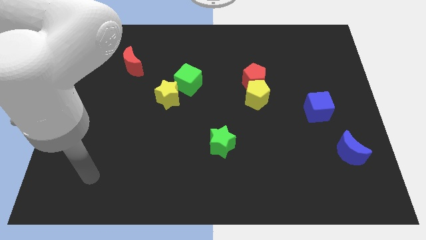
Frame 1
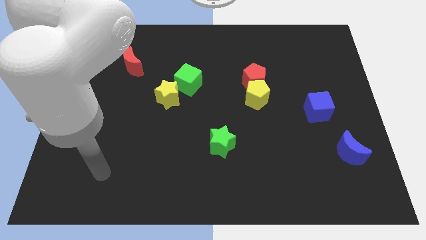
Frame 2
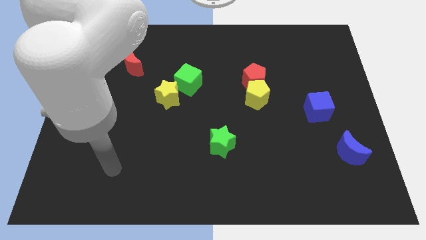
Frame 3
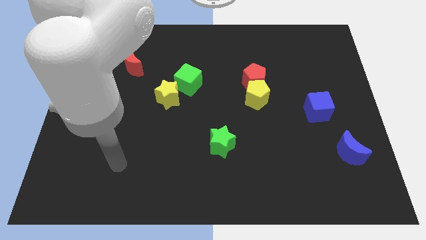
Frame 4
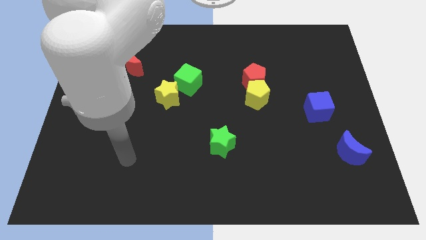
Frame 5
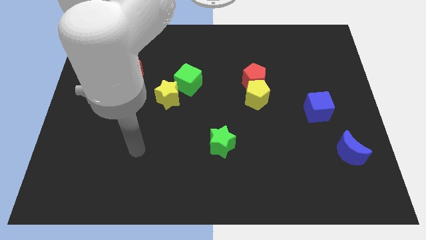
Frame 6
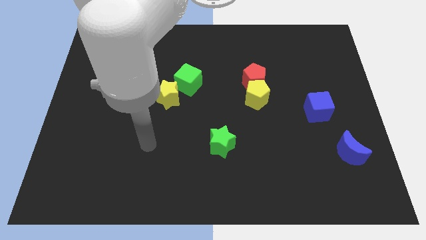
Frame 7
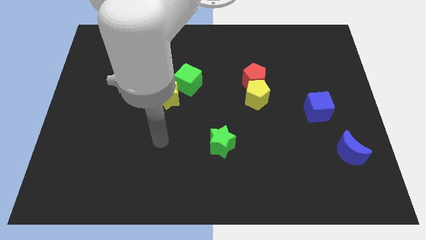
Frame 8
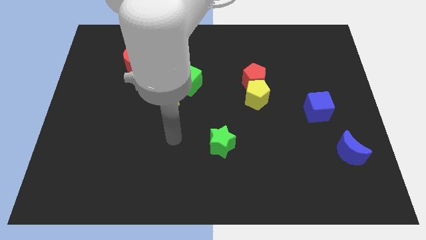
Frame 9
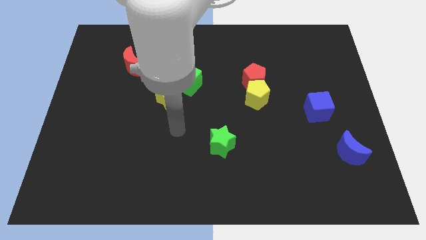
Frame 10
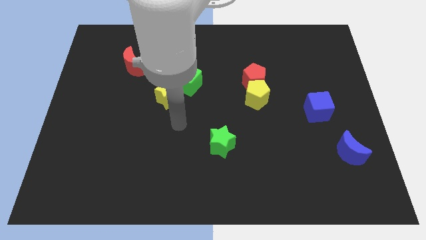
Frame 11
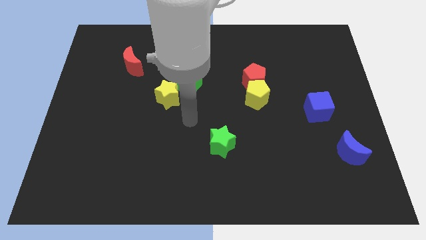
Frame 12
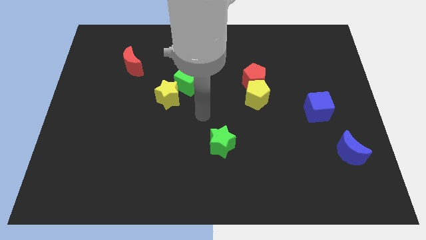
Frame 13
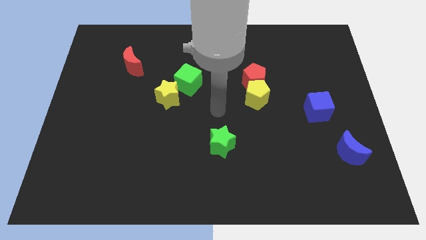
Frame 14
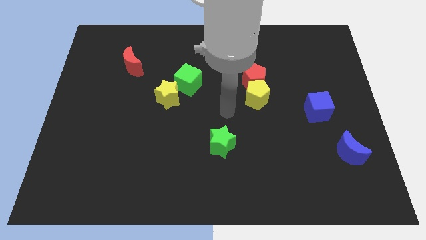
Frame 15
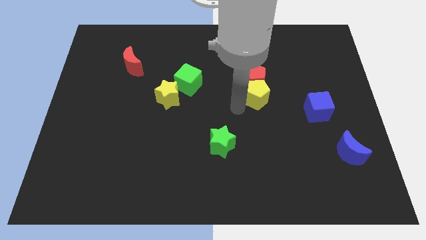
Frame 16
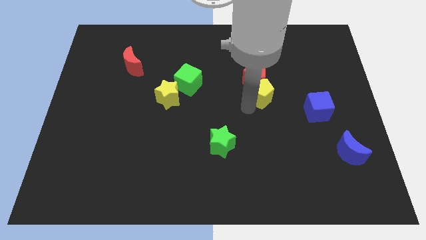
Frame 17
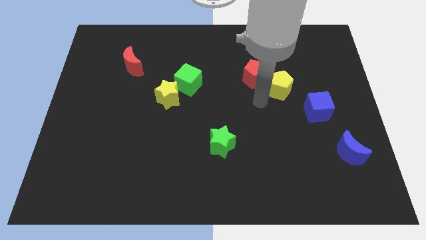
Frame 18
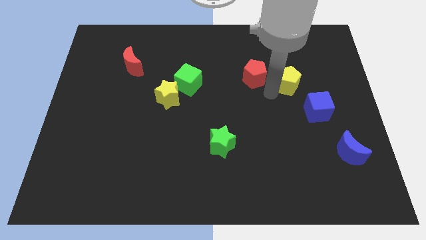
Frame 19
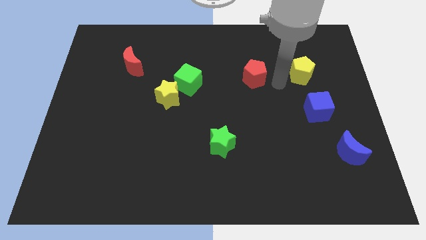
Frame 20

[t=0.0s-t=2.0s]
separate the red pentagon from the yellow pentagon

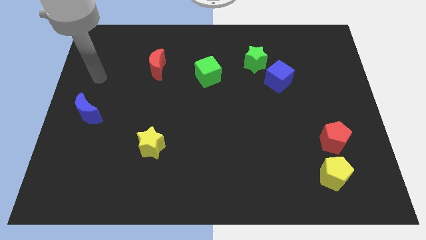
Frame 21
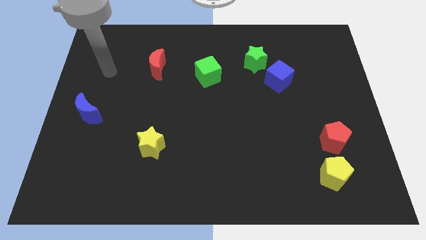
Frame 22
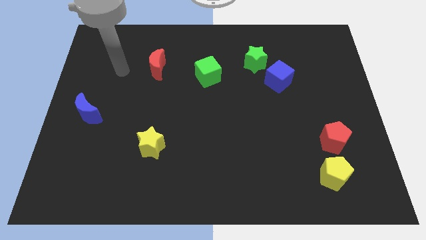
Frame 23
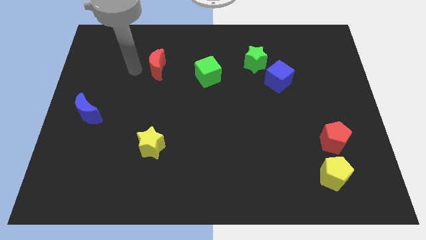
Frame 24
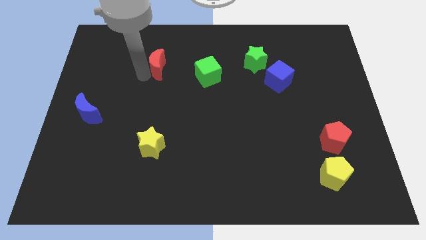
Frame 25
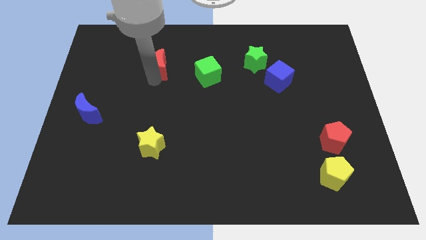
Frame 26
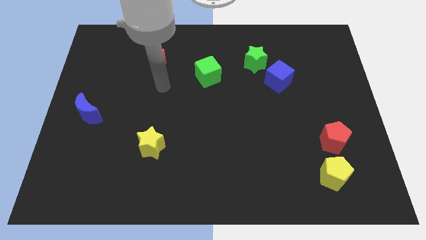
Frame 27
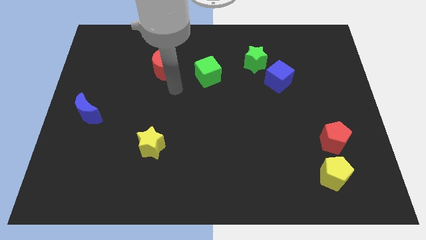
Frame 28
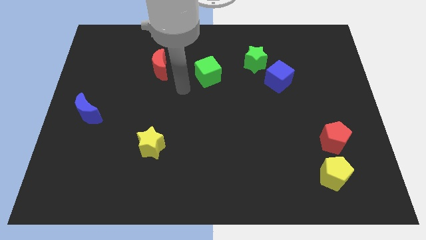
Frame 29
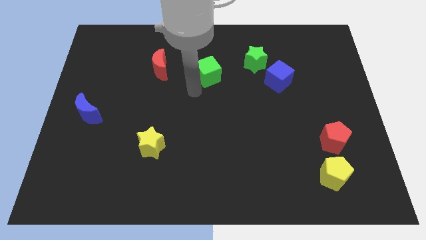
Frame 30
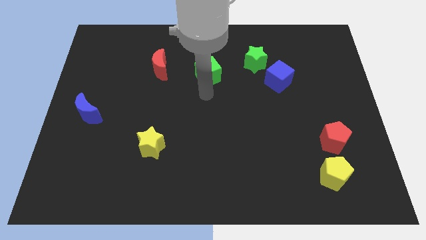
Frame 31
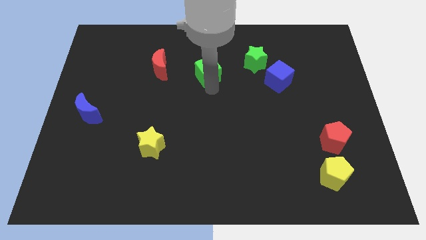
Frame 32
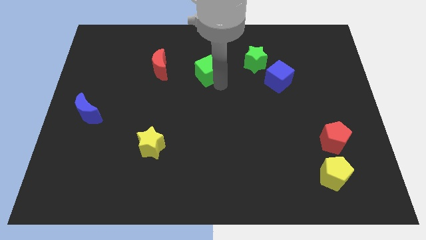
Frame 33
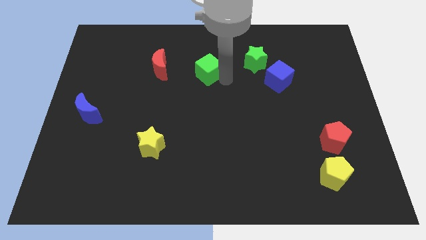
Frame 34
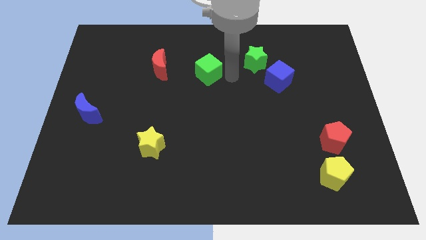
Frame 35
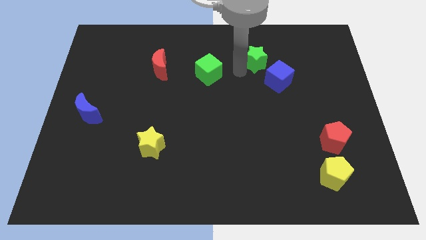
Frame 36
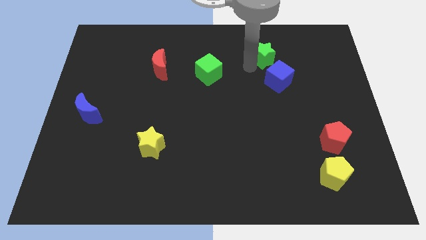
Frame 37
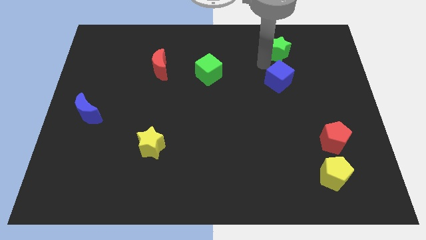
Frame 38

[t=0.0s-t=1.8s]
move the blue cube away from the green star

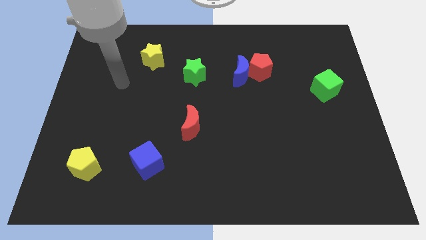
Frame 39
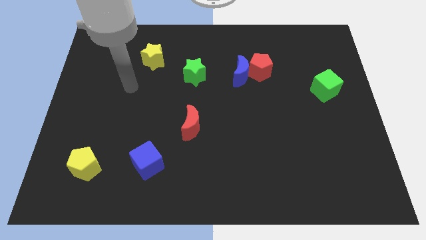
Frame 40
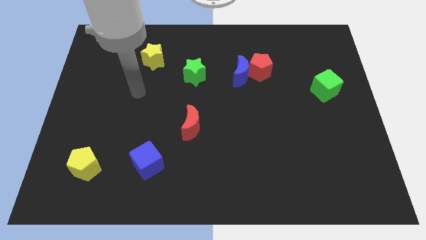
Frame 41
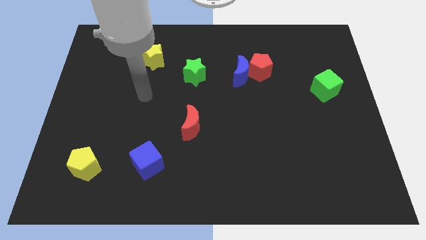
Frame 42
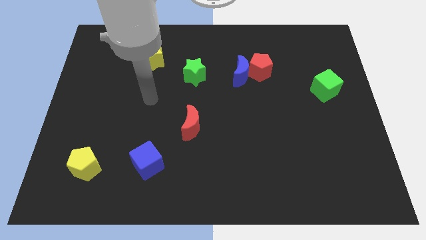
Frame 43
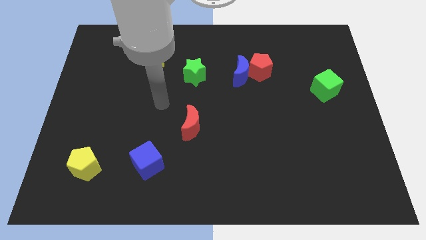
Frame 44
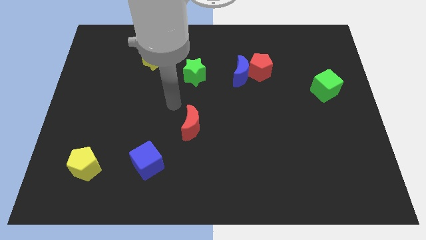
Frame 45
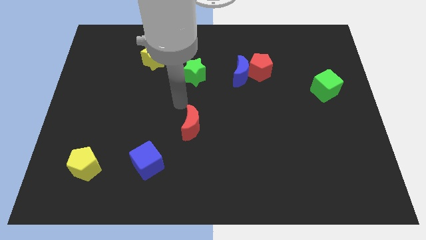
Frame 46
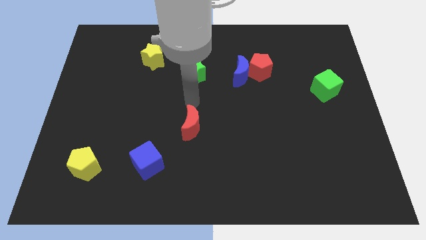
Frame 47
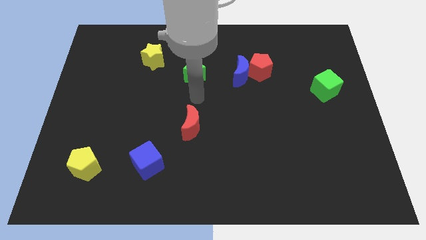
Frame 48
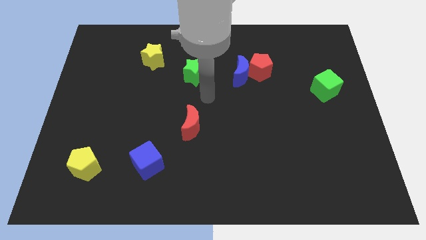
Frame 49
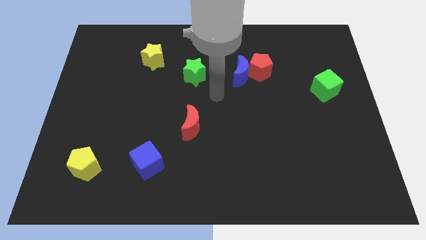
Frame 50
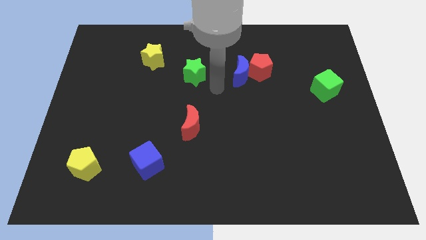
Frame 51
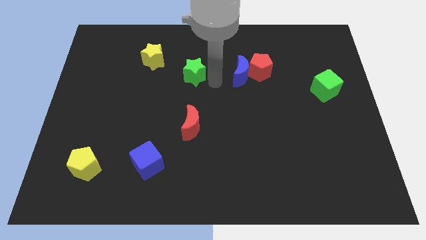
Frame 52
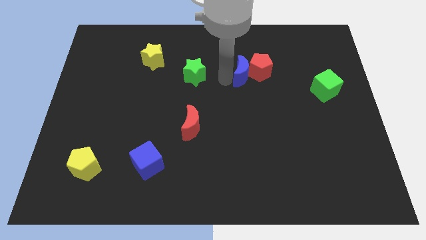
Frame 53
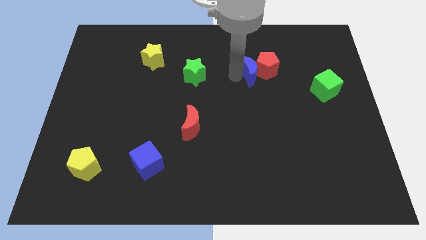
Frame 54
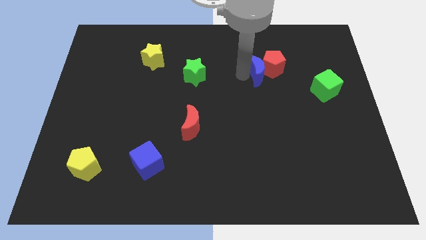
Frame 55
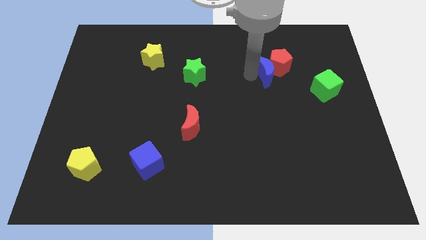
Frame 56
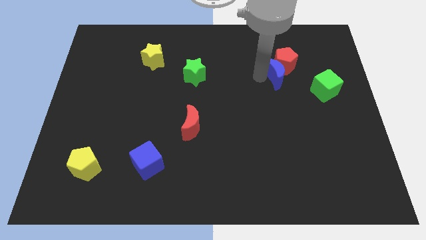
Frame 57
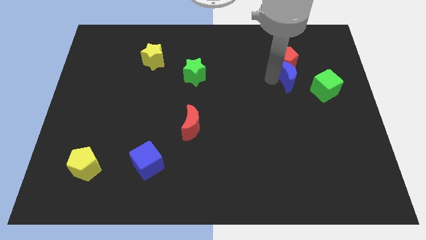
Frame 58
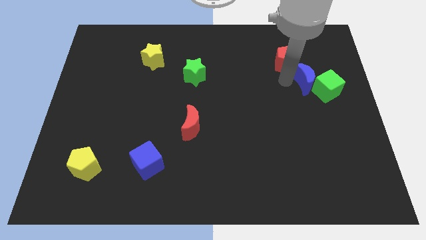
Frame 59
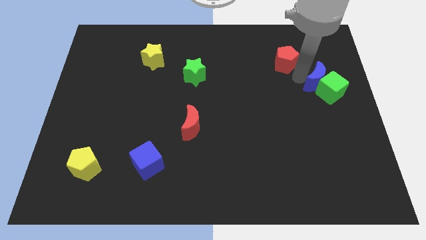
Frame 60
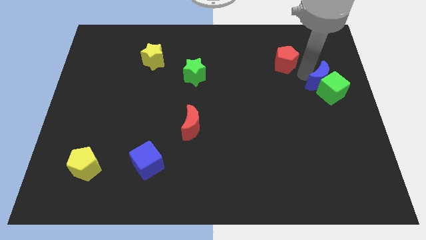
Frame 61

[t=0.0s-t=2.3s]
separate the red pentagon from the blue moon

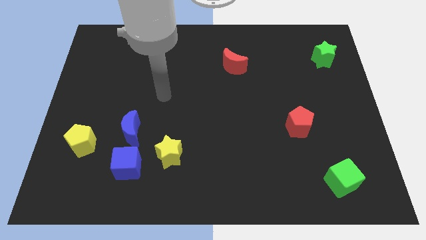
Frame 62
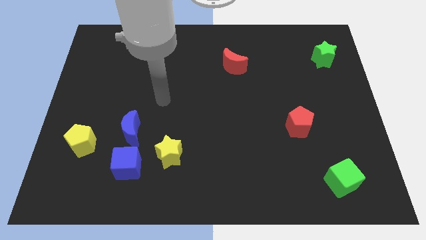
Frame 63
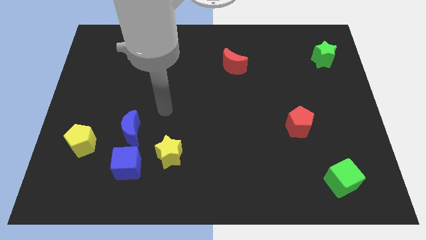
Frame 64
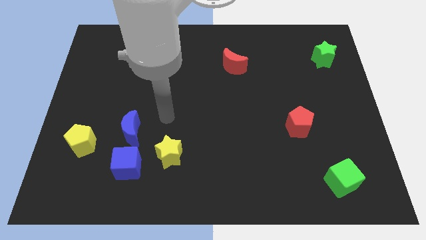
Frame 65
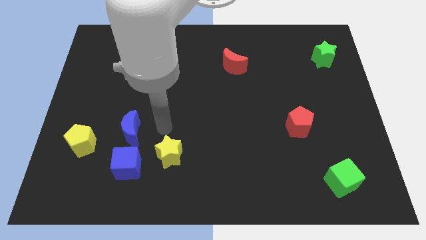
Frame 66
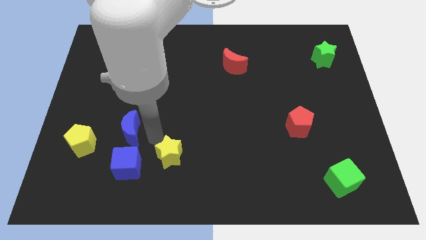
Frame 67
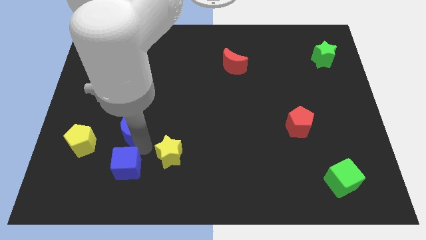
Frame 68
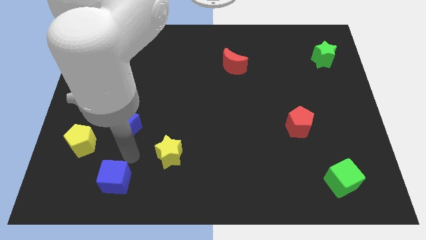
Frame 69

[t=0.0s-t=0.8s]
move the blue moon away from the blue cube

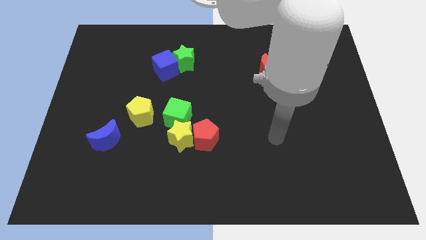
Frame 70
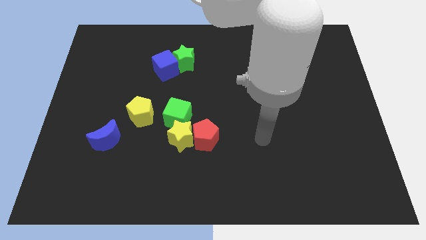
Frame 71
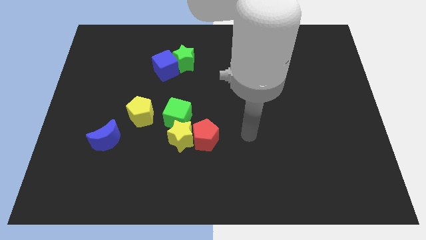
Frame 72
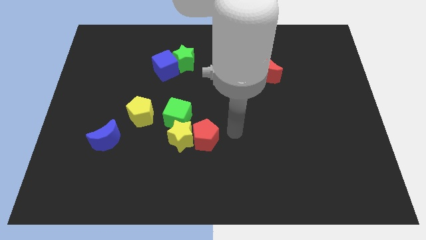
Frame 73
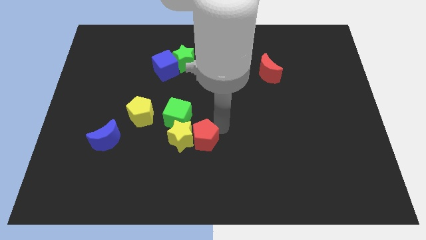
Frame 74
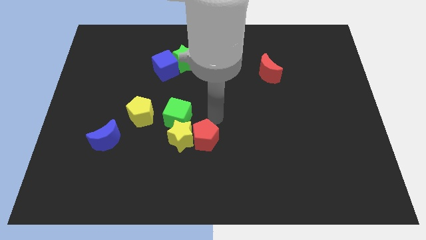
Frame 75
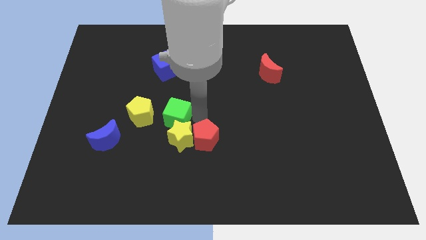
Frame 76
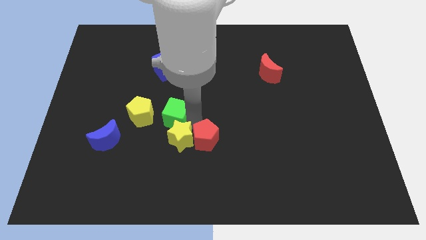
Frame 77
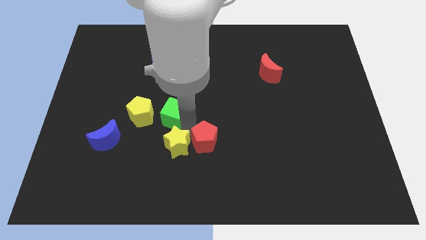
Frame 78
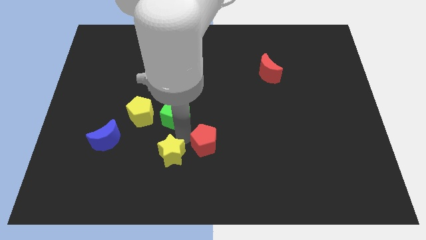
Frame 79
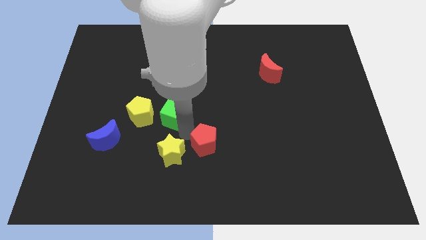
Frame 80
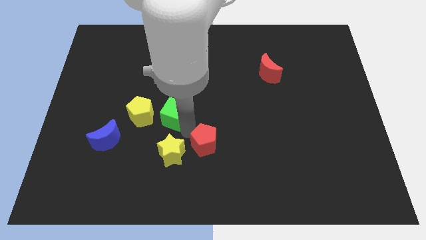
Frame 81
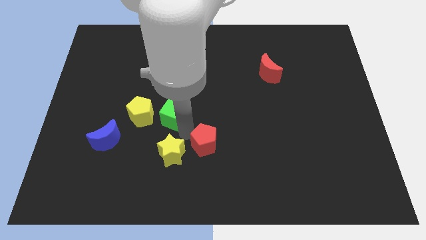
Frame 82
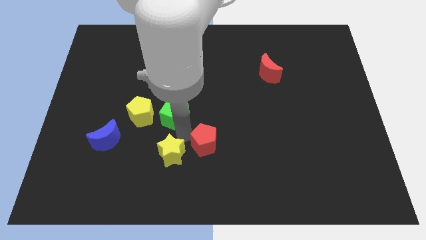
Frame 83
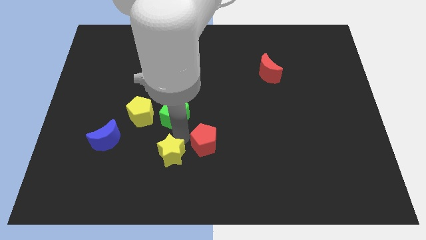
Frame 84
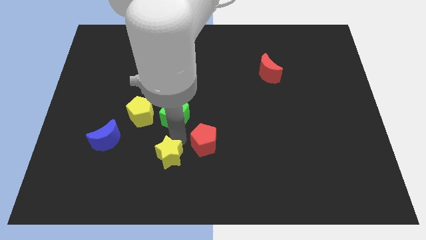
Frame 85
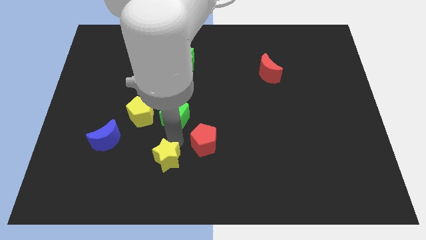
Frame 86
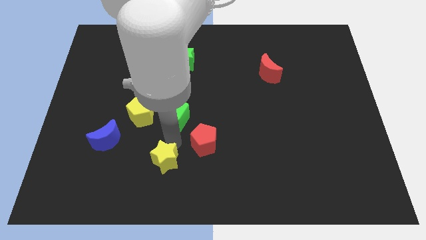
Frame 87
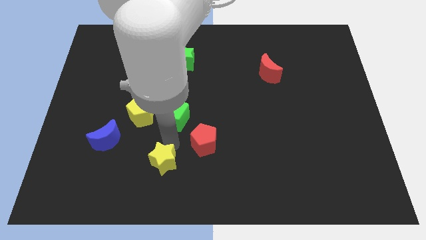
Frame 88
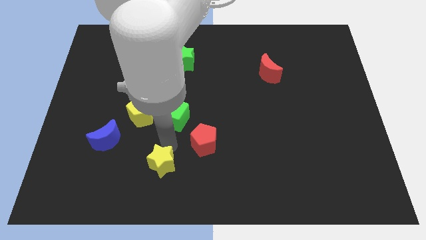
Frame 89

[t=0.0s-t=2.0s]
separate the yellow star from the red pentagon and green cube

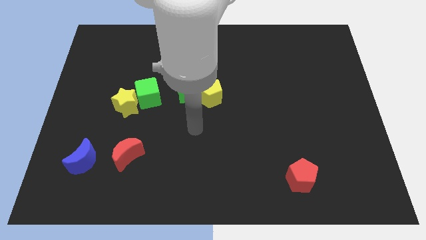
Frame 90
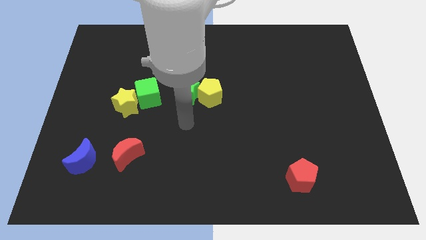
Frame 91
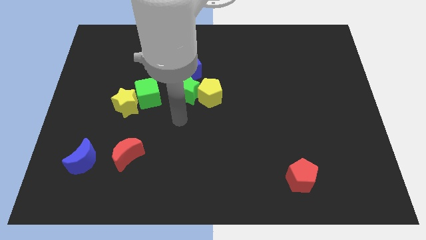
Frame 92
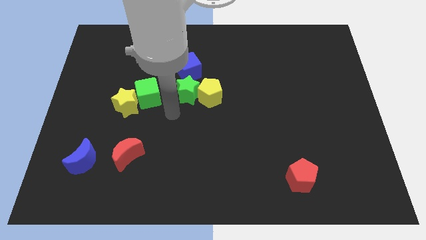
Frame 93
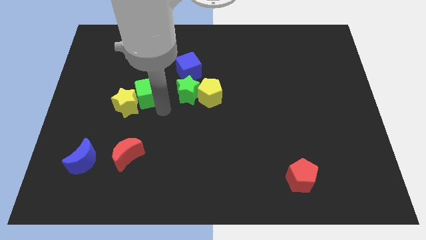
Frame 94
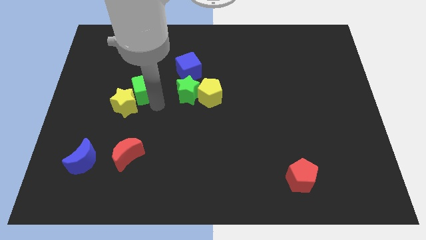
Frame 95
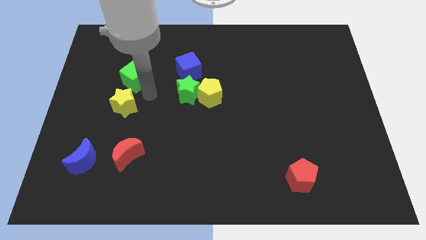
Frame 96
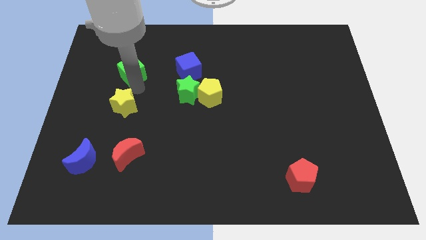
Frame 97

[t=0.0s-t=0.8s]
separate the yellow star from the green cube
